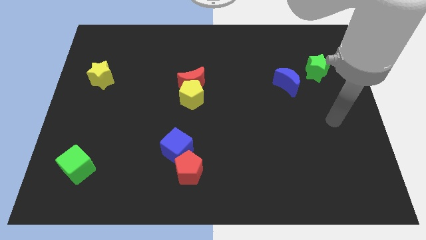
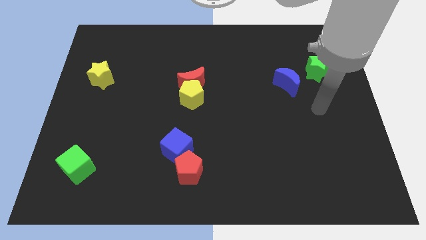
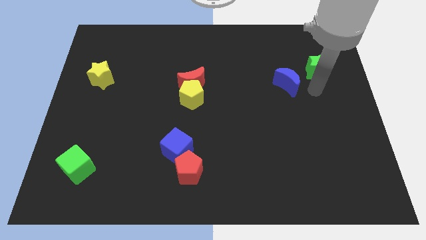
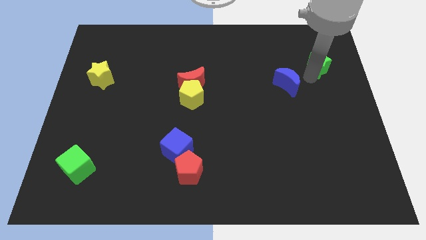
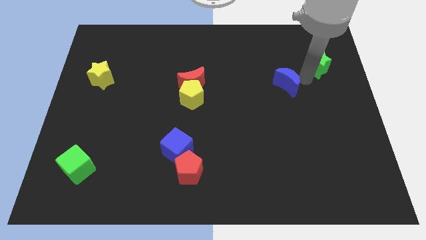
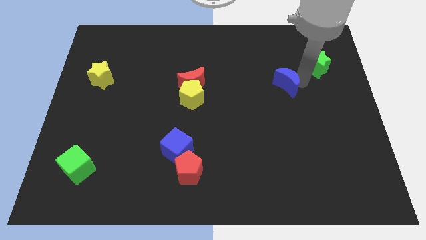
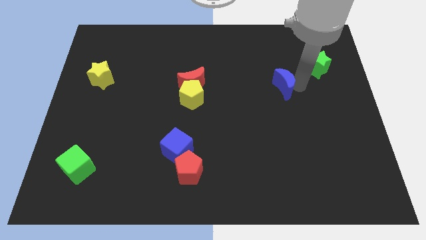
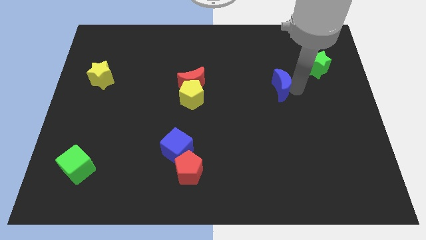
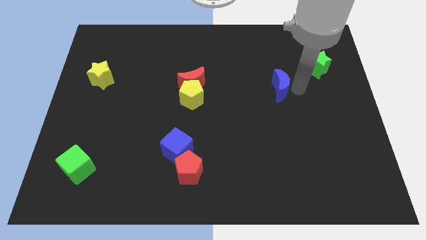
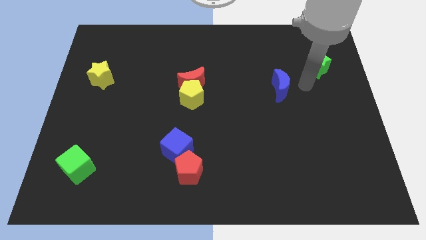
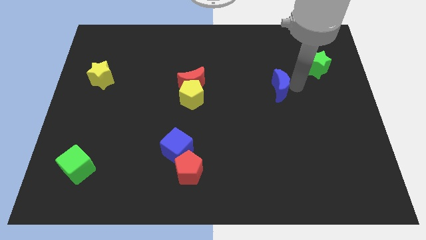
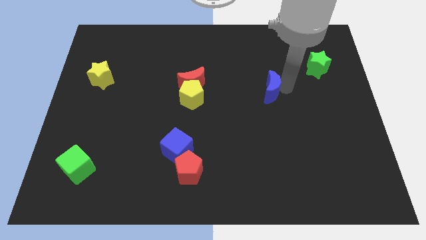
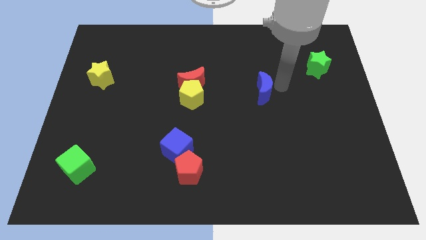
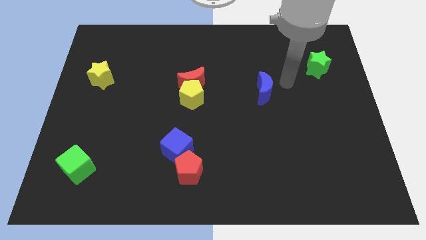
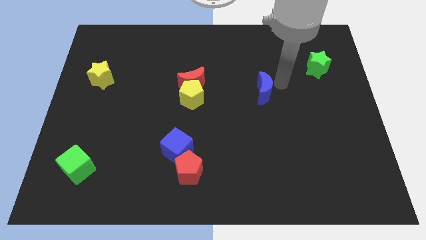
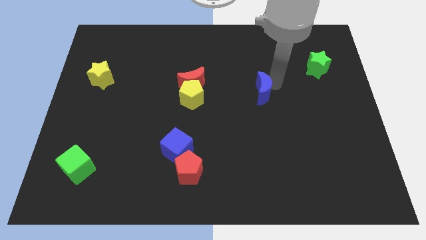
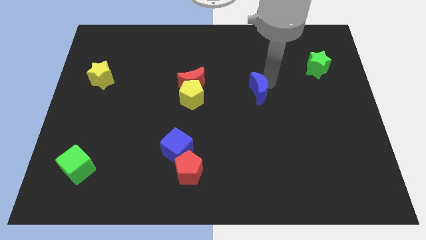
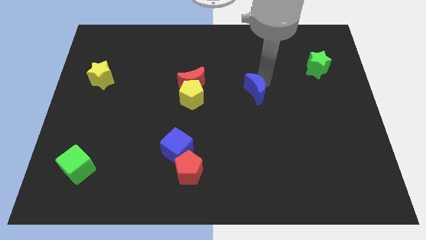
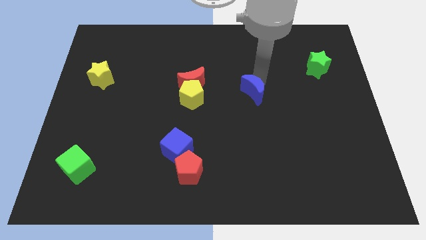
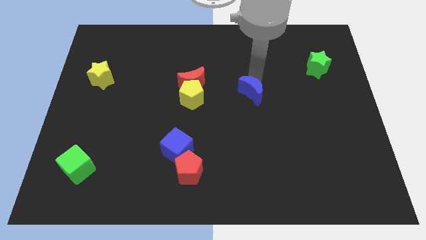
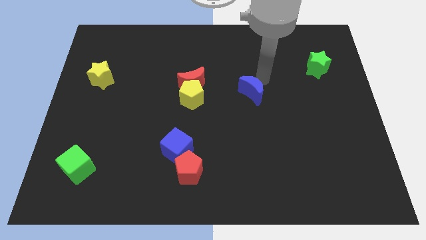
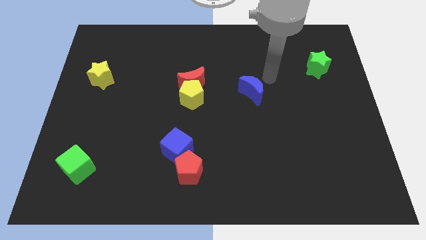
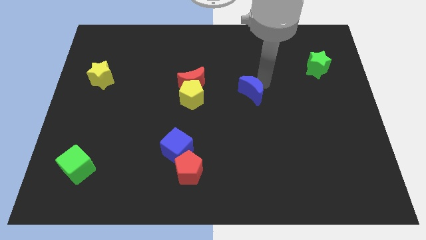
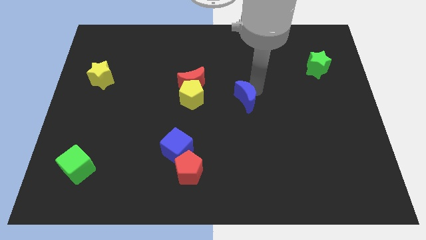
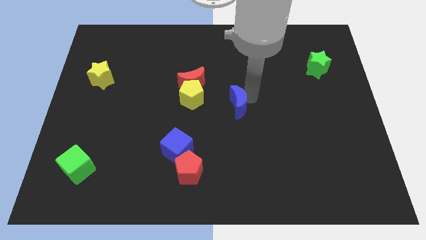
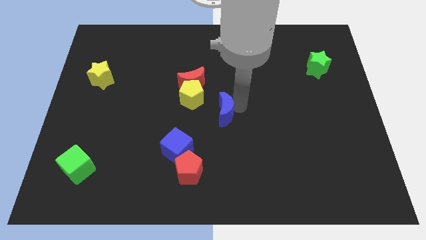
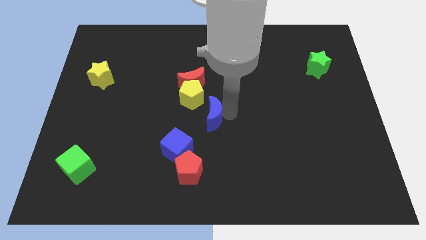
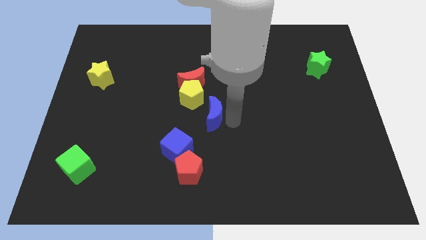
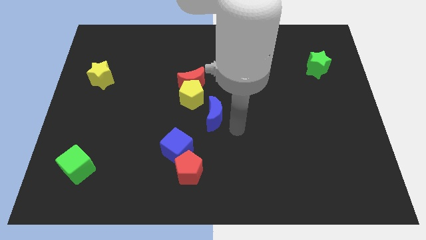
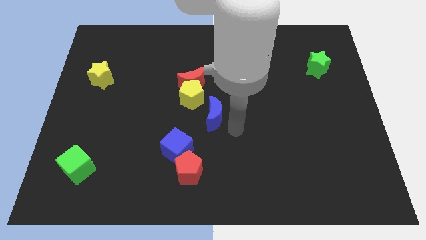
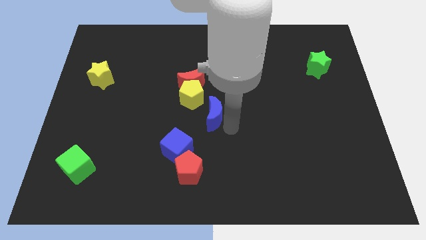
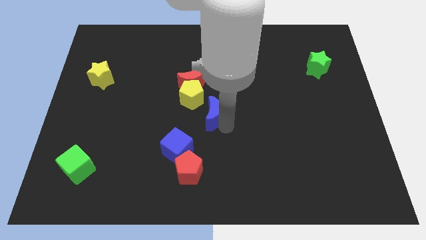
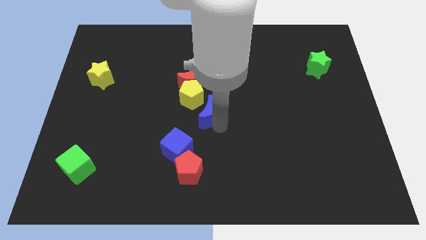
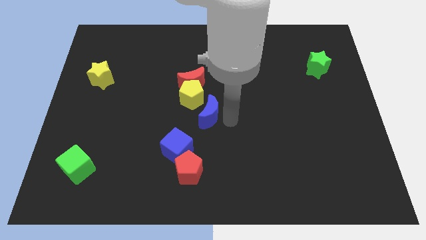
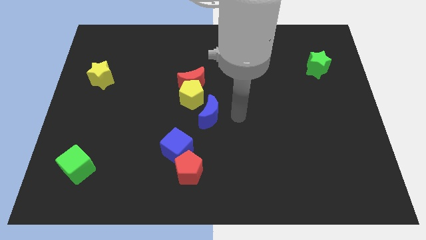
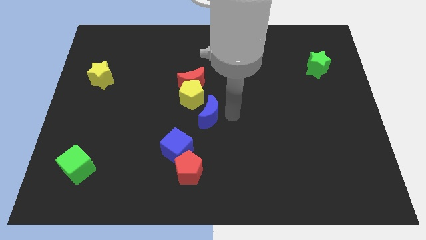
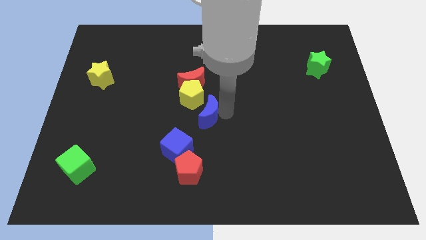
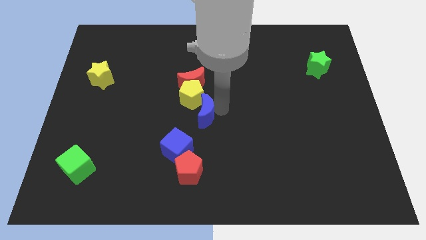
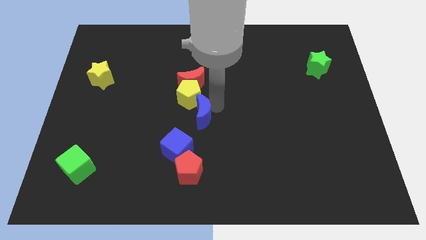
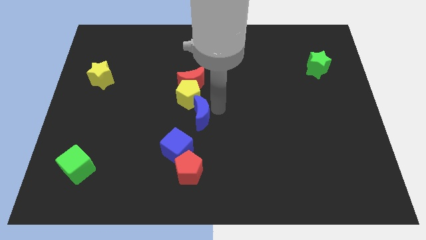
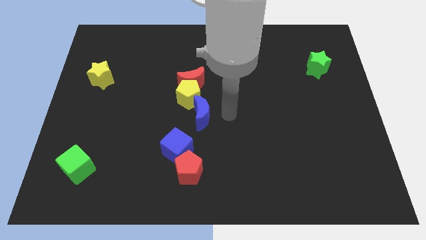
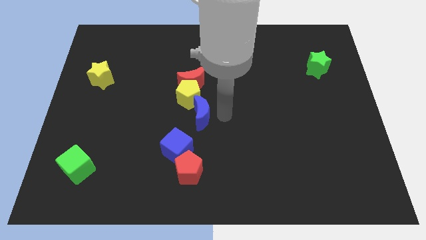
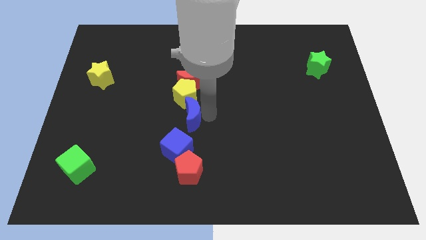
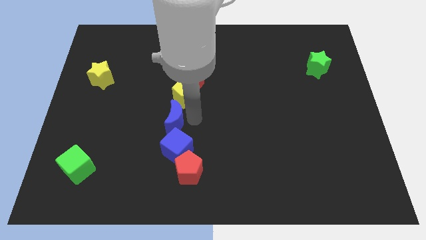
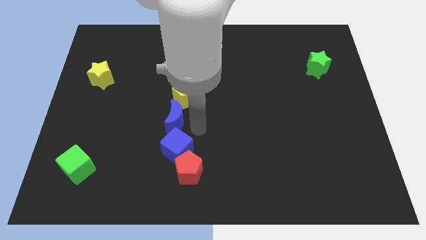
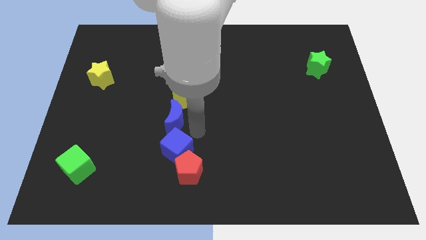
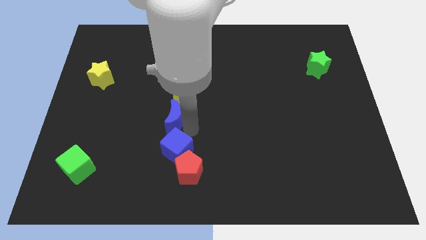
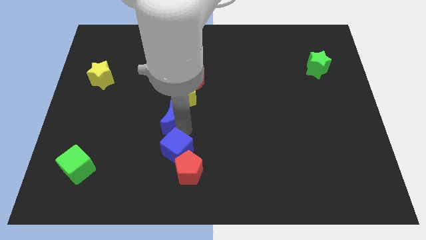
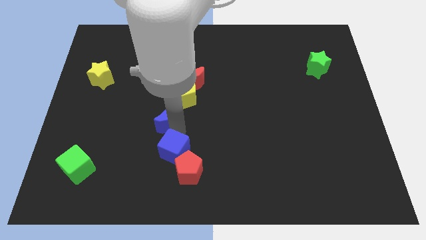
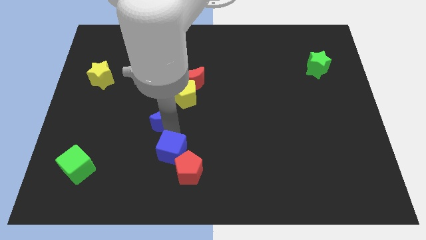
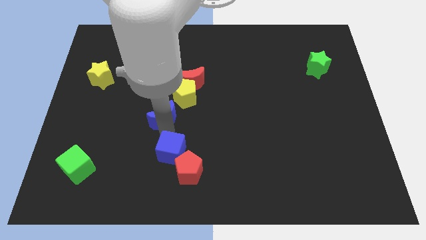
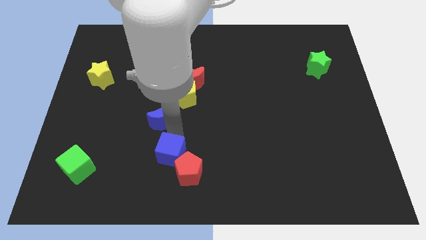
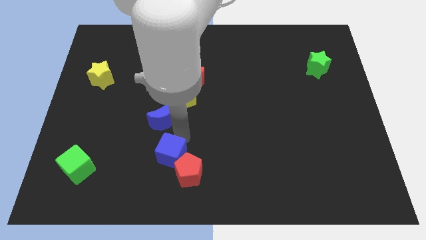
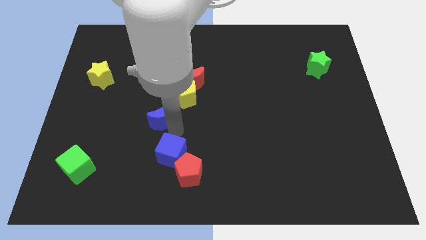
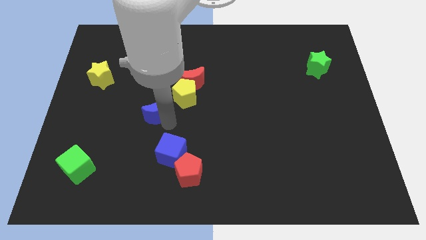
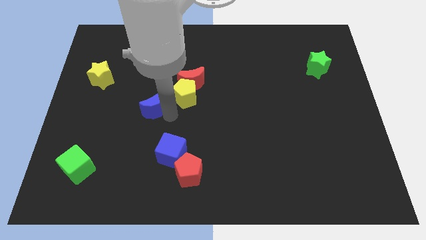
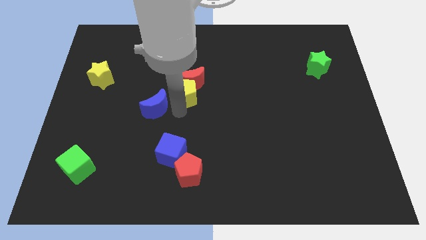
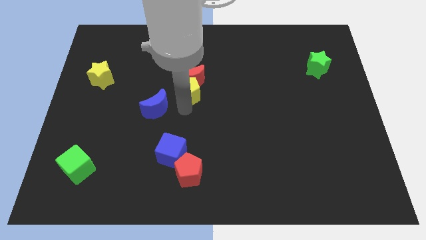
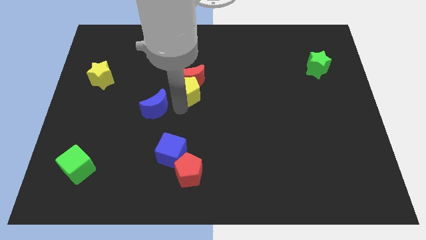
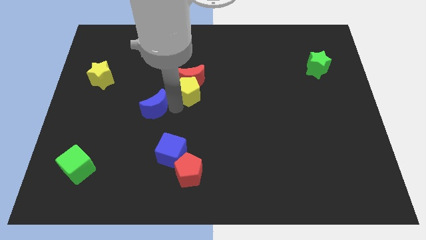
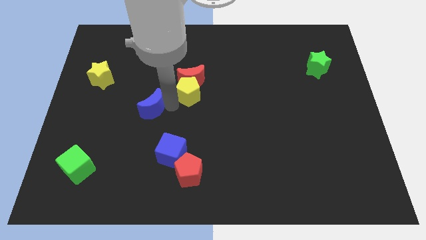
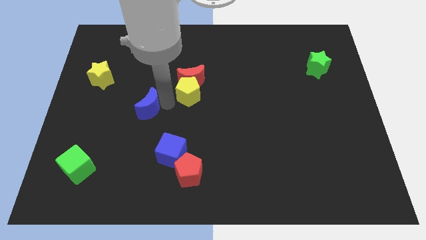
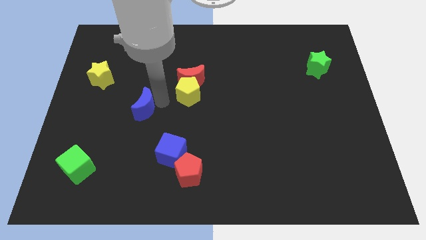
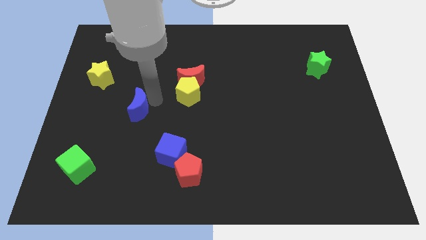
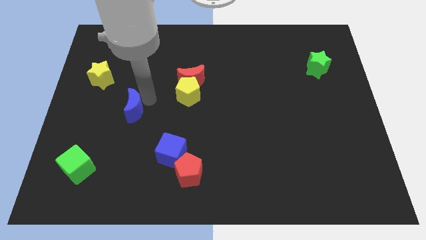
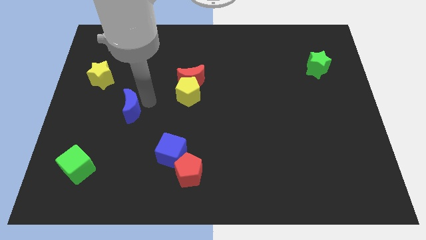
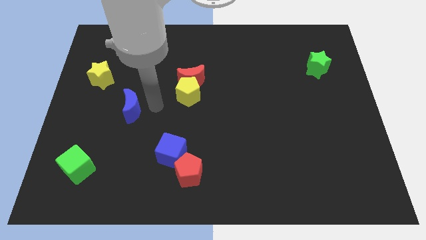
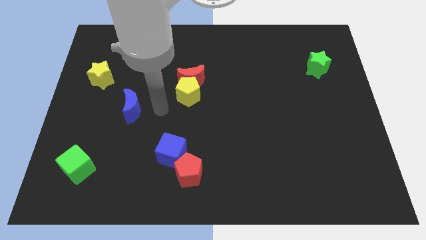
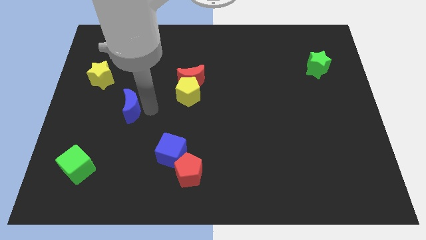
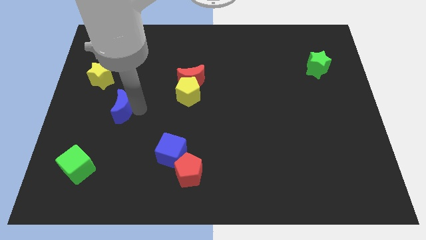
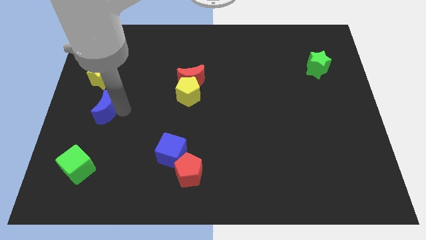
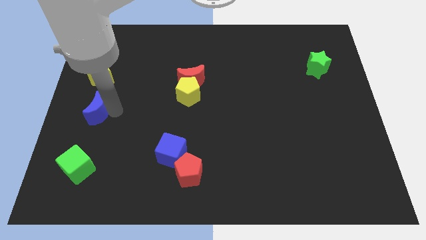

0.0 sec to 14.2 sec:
slide the blue moon to the center left
